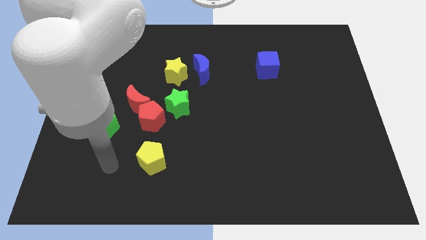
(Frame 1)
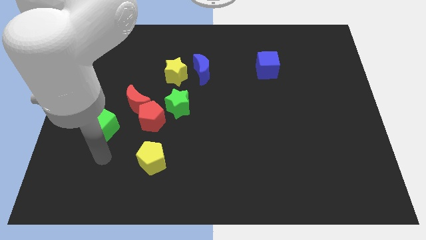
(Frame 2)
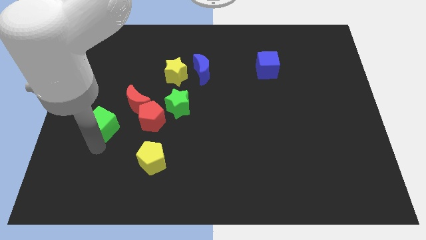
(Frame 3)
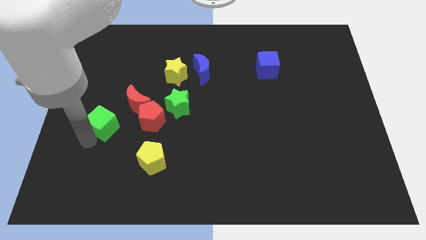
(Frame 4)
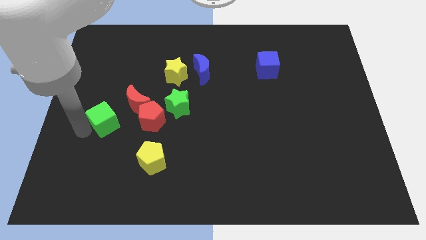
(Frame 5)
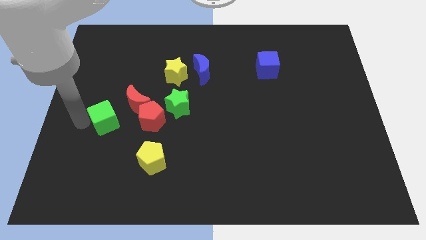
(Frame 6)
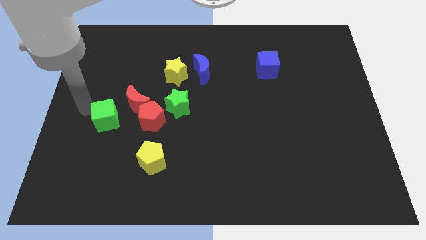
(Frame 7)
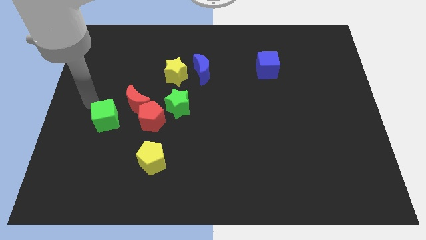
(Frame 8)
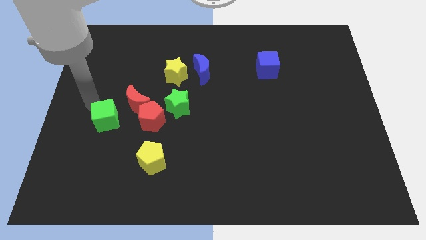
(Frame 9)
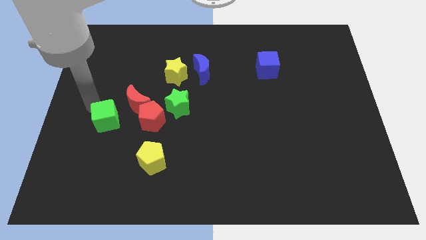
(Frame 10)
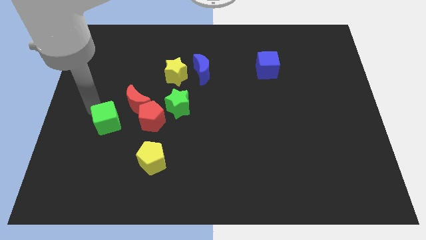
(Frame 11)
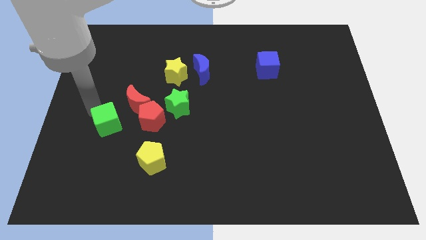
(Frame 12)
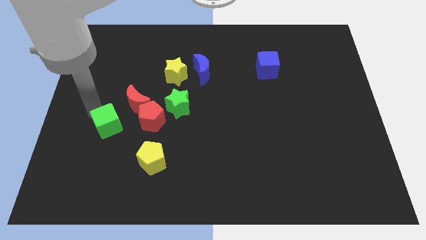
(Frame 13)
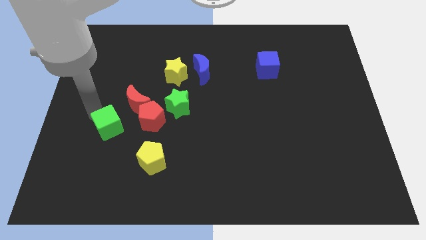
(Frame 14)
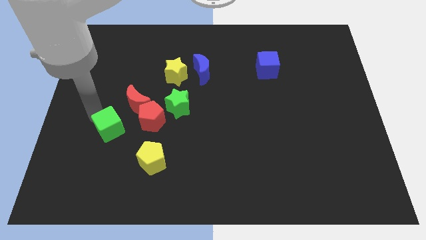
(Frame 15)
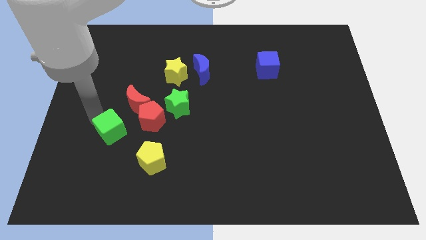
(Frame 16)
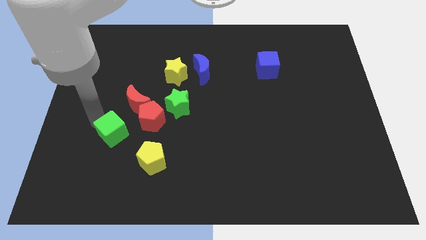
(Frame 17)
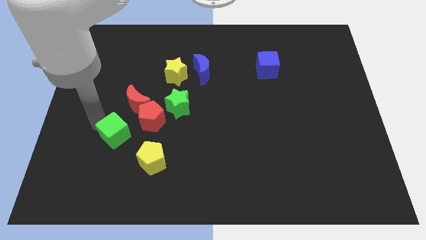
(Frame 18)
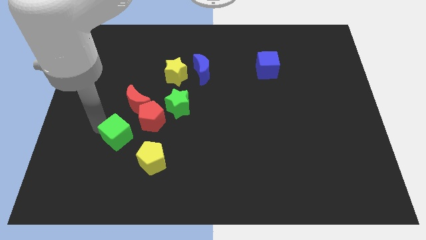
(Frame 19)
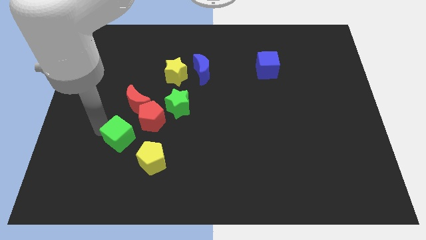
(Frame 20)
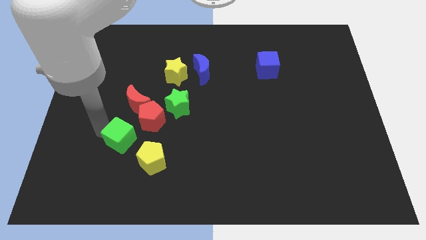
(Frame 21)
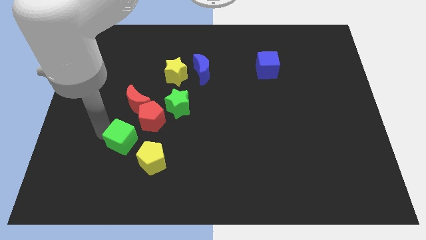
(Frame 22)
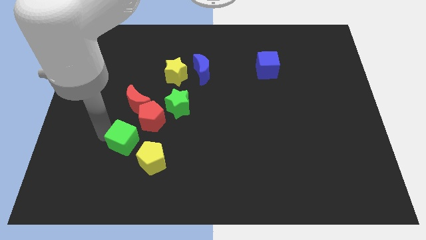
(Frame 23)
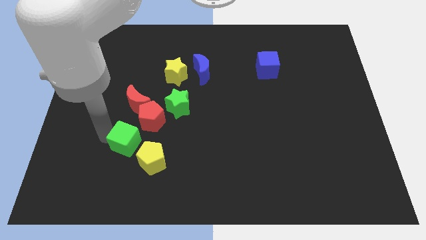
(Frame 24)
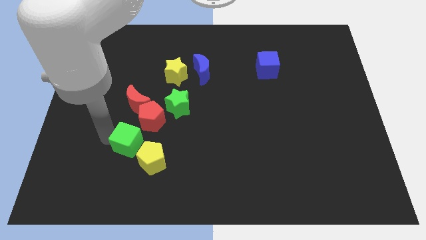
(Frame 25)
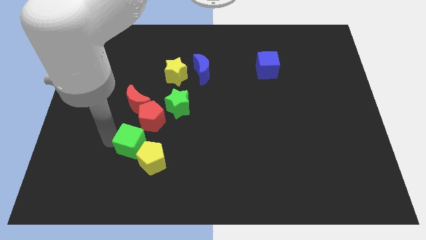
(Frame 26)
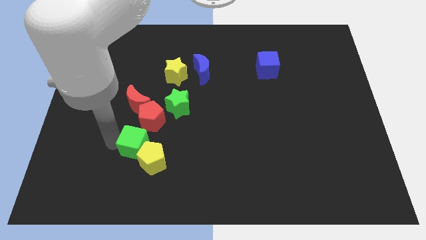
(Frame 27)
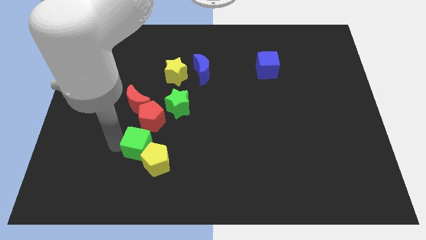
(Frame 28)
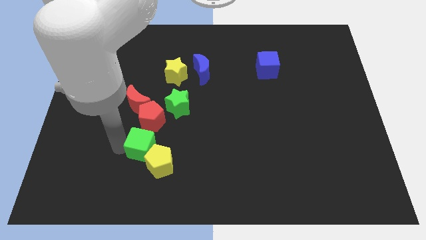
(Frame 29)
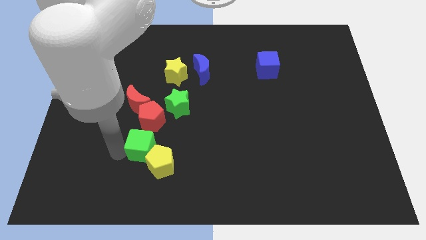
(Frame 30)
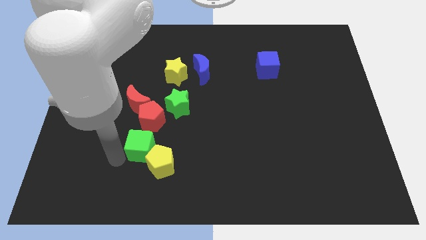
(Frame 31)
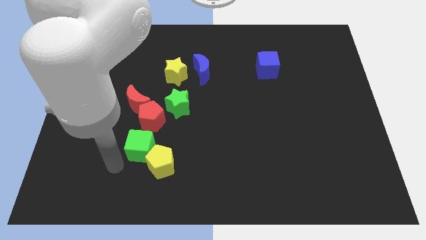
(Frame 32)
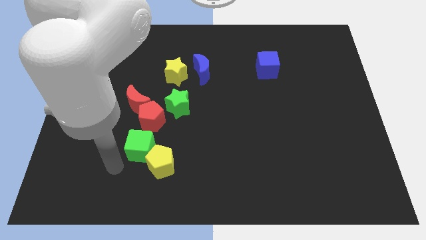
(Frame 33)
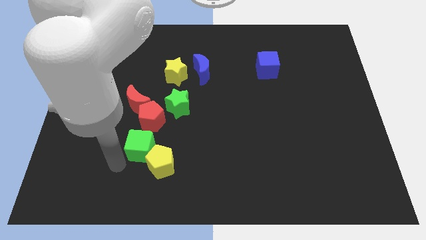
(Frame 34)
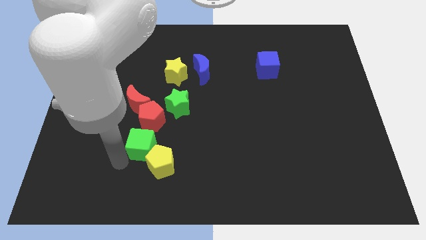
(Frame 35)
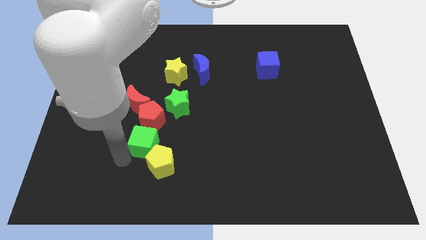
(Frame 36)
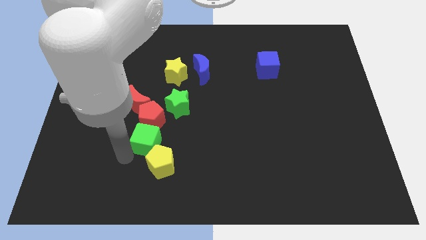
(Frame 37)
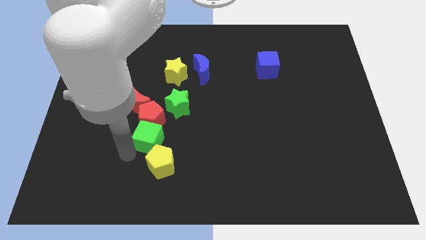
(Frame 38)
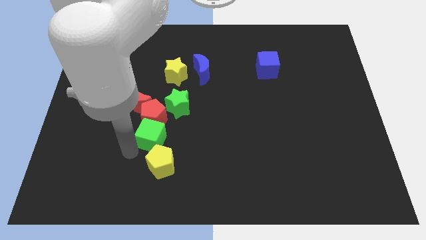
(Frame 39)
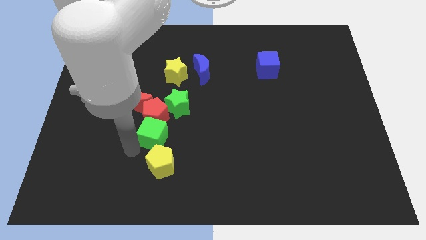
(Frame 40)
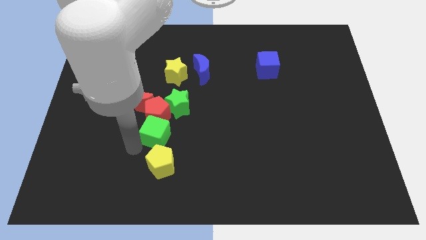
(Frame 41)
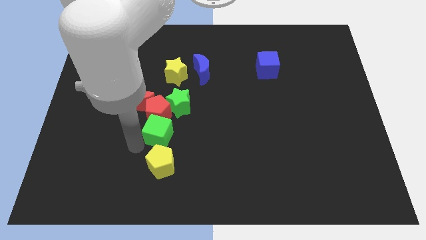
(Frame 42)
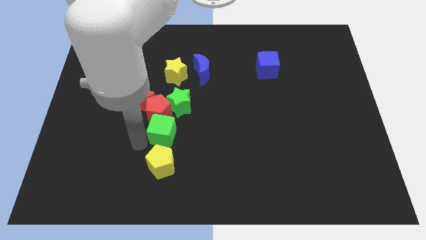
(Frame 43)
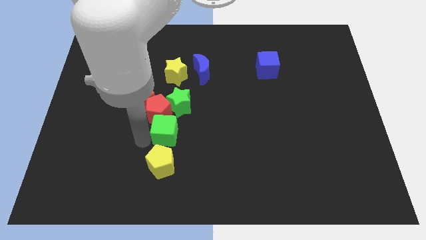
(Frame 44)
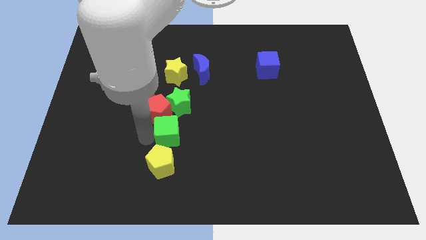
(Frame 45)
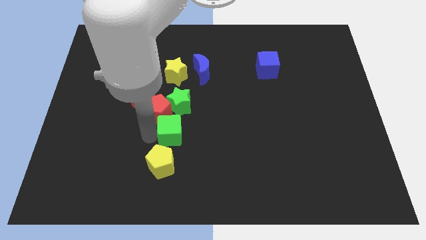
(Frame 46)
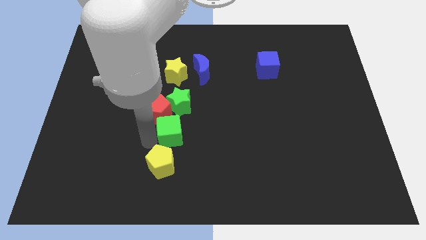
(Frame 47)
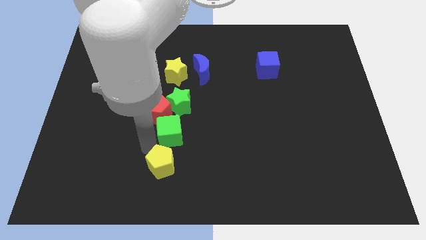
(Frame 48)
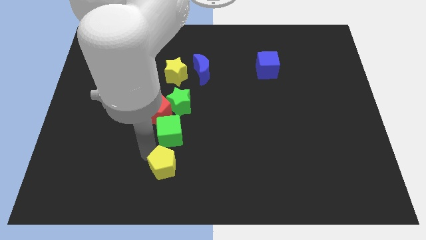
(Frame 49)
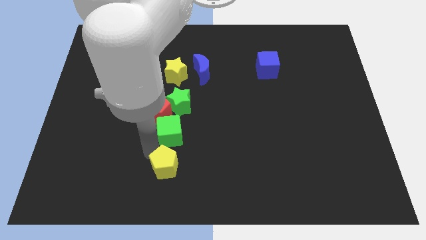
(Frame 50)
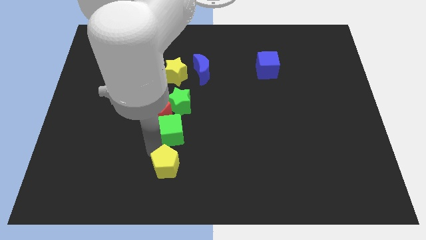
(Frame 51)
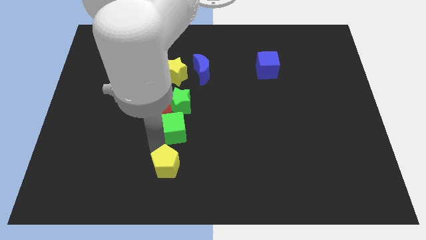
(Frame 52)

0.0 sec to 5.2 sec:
put the green cube to the center of the board

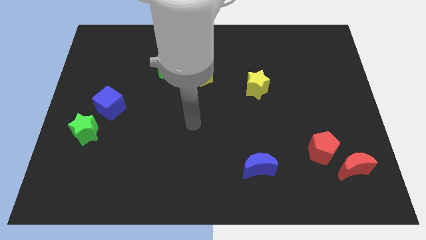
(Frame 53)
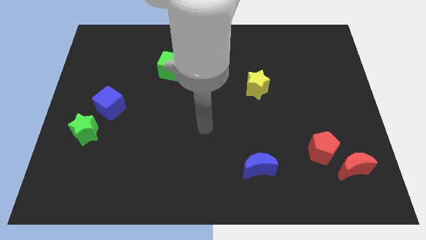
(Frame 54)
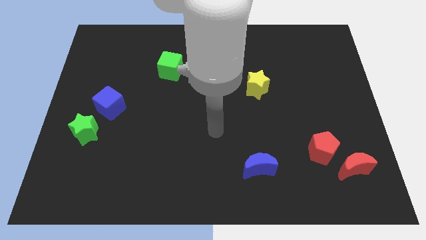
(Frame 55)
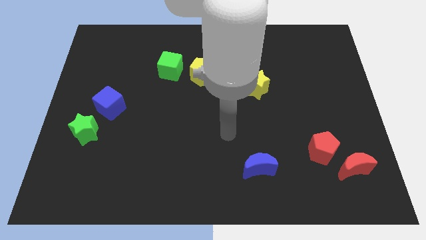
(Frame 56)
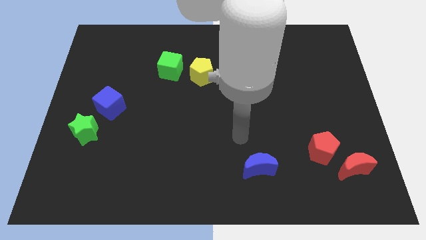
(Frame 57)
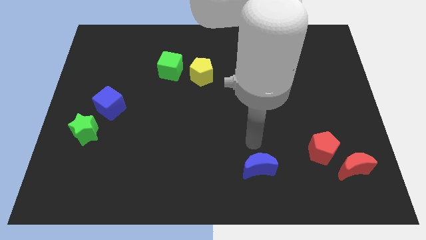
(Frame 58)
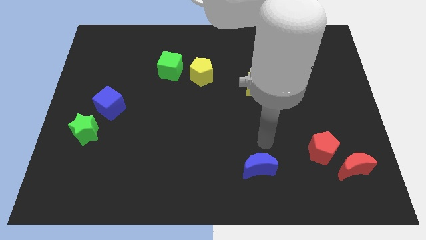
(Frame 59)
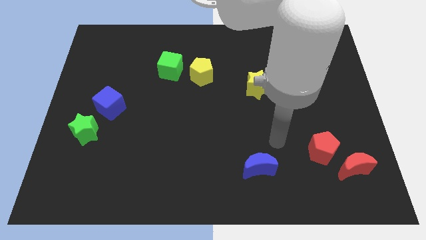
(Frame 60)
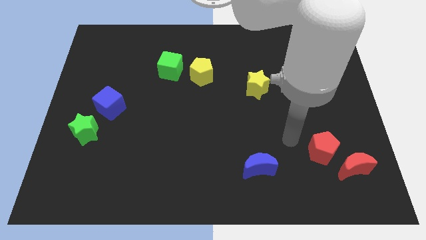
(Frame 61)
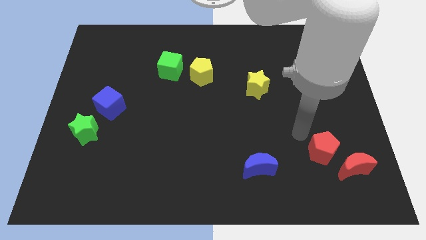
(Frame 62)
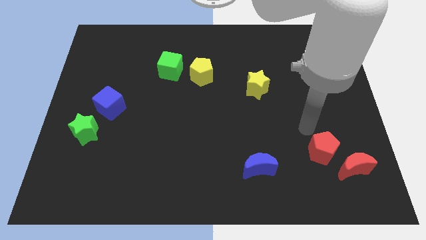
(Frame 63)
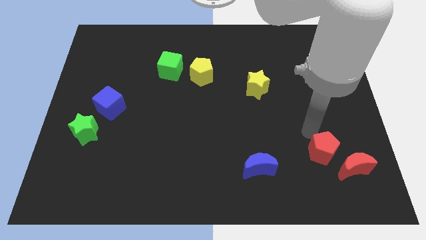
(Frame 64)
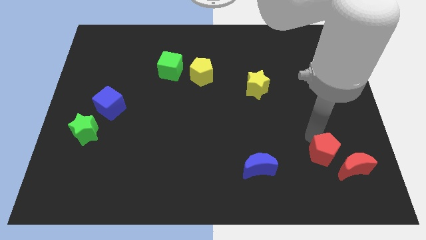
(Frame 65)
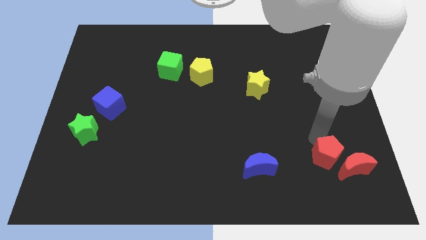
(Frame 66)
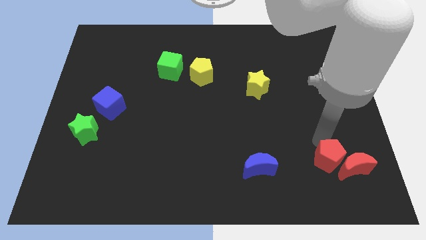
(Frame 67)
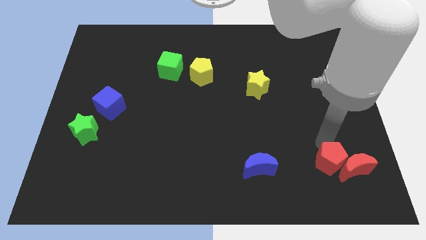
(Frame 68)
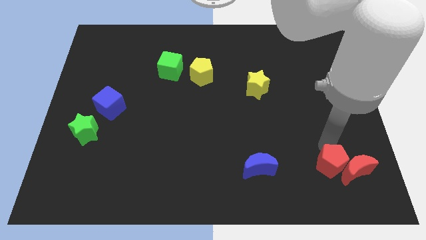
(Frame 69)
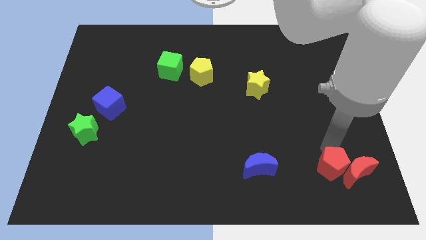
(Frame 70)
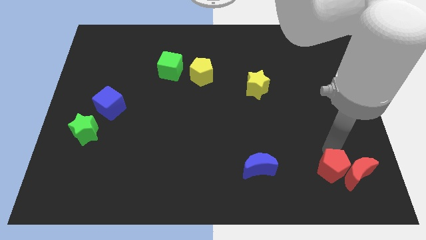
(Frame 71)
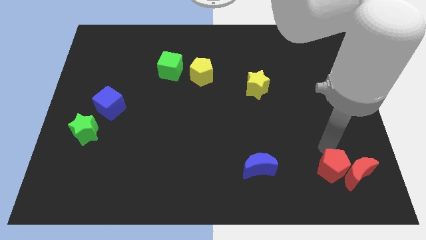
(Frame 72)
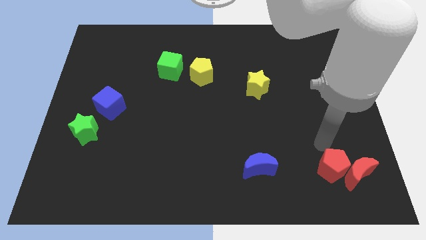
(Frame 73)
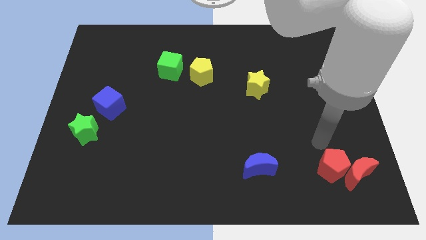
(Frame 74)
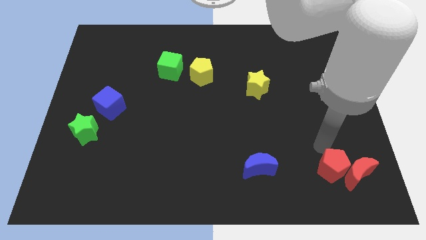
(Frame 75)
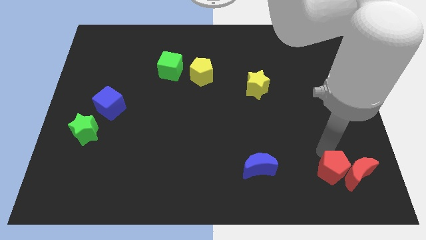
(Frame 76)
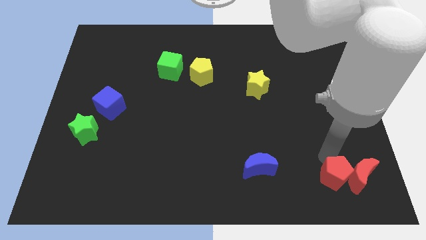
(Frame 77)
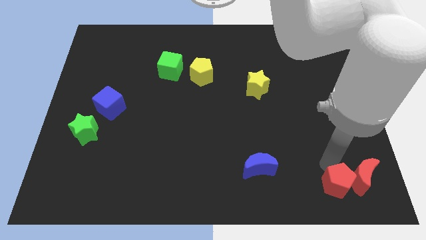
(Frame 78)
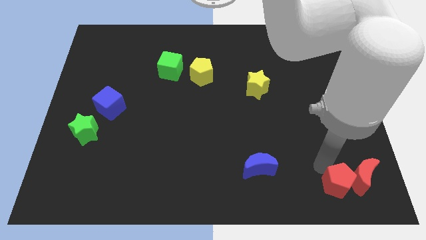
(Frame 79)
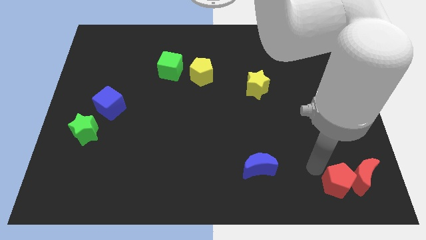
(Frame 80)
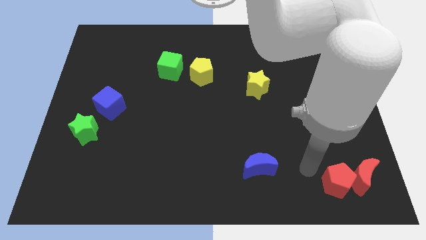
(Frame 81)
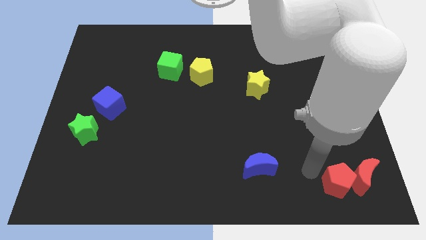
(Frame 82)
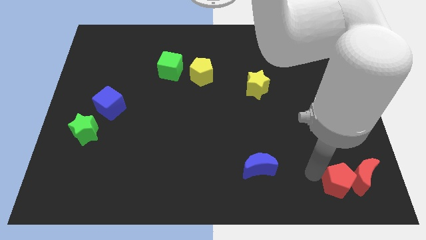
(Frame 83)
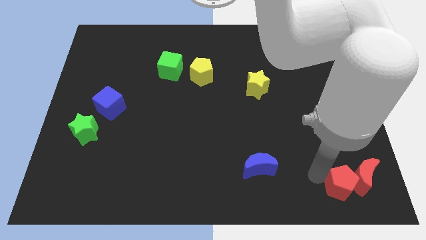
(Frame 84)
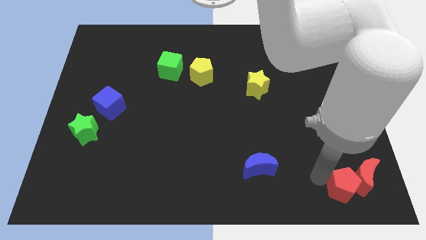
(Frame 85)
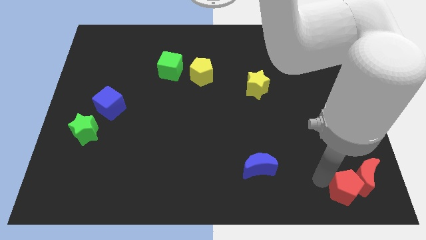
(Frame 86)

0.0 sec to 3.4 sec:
move the red pentagon to the bottom right corner
